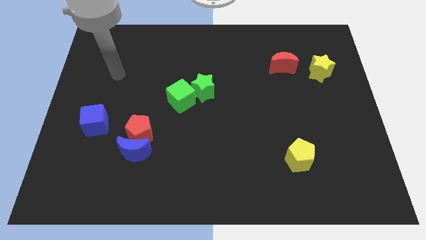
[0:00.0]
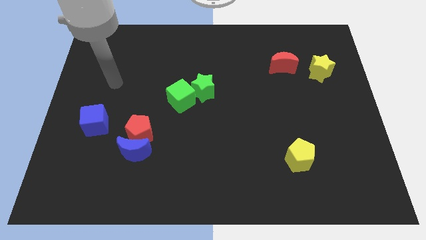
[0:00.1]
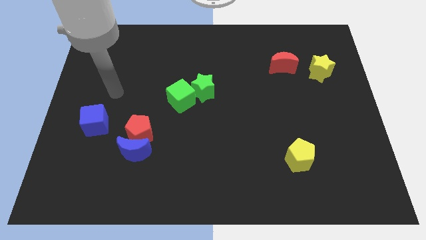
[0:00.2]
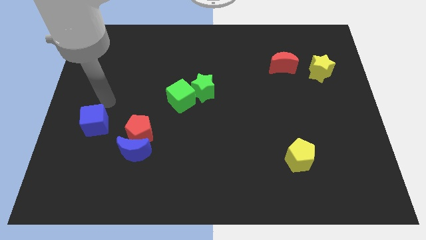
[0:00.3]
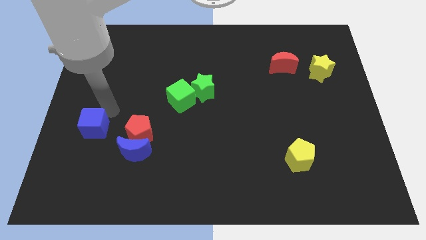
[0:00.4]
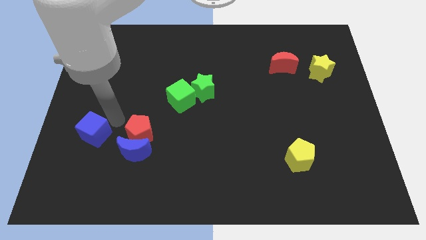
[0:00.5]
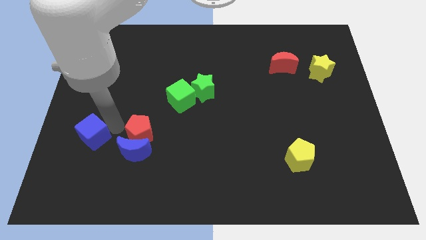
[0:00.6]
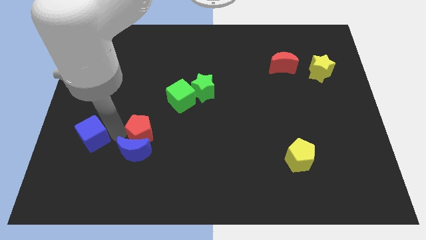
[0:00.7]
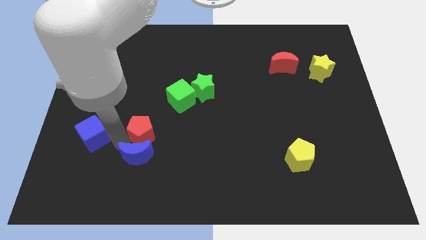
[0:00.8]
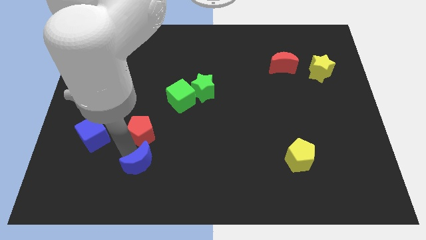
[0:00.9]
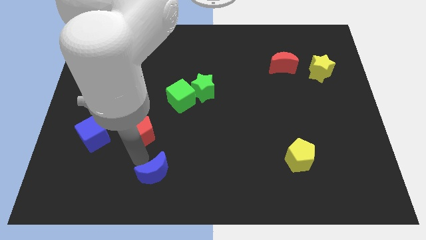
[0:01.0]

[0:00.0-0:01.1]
pull the red pentagon apart from the blue moon

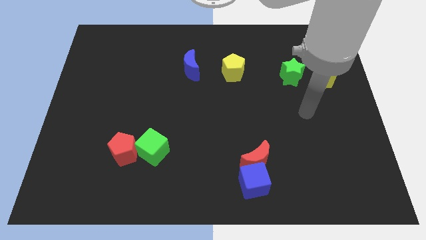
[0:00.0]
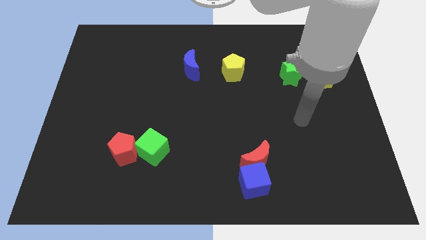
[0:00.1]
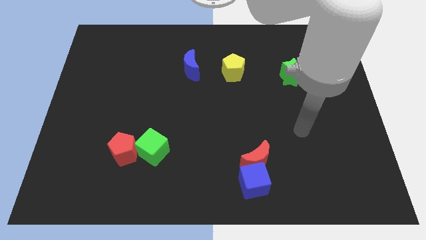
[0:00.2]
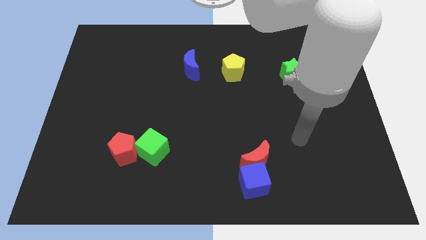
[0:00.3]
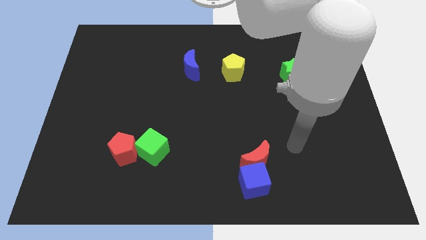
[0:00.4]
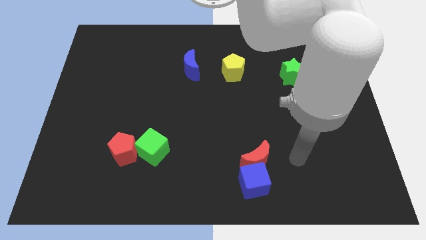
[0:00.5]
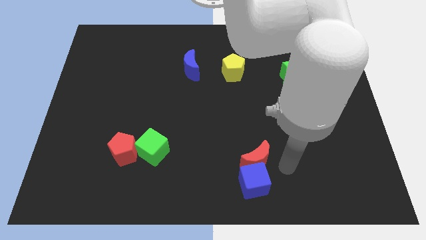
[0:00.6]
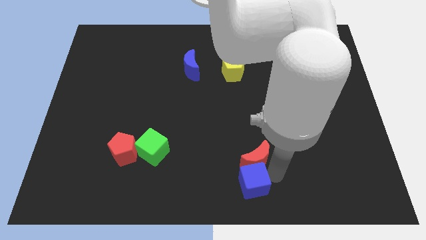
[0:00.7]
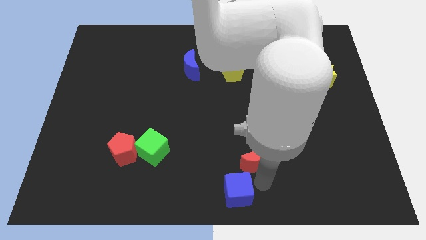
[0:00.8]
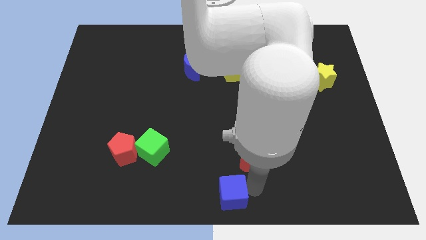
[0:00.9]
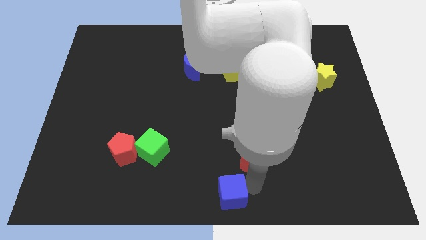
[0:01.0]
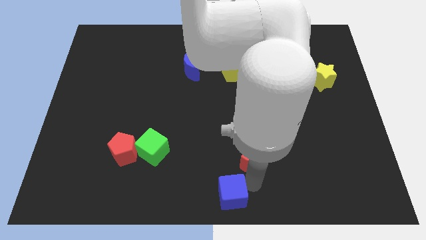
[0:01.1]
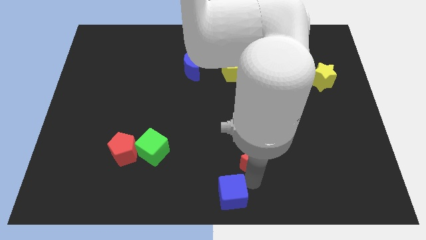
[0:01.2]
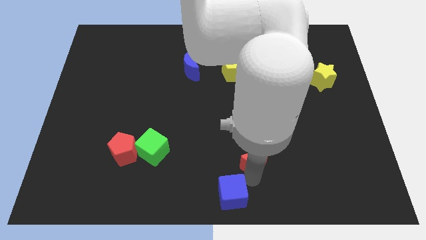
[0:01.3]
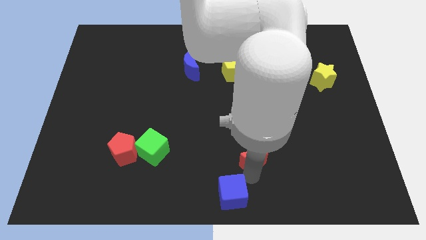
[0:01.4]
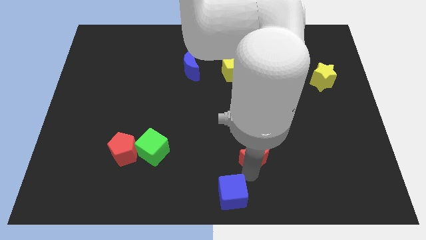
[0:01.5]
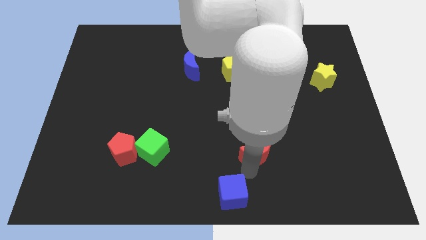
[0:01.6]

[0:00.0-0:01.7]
move the red moon away from the blue cube

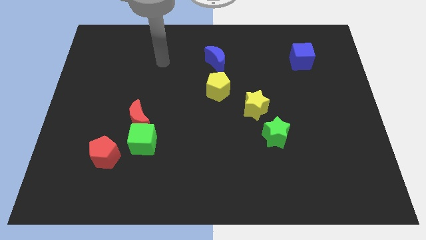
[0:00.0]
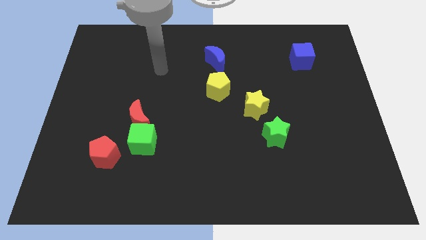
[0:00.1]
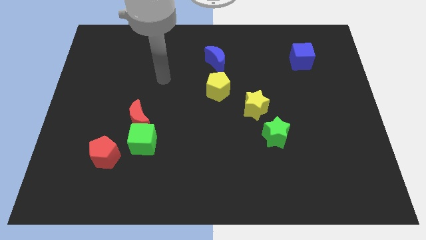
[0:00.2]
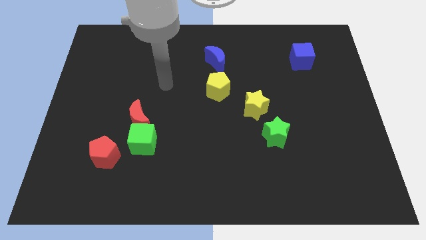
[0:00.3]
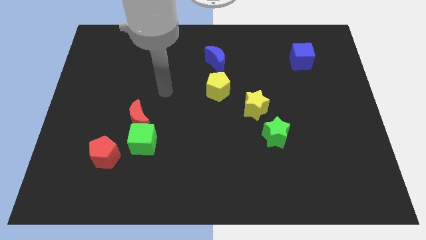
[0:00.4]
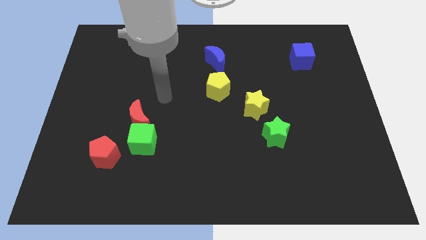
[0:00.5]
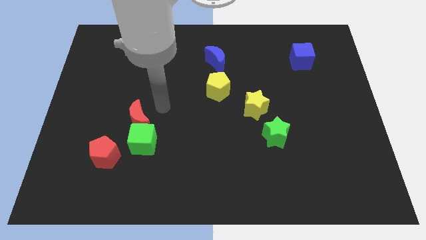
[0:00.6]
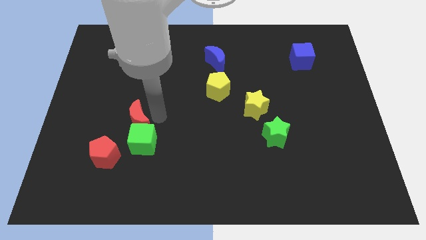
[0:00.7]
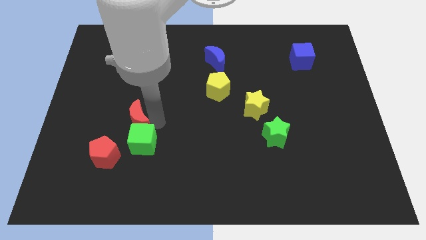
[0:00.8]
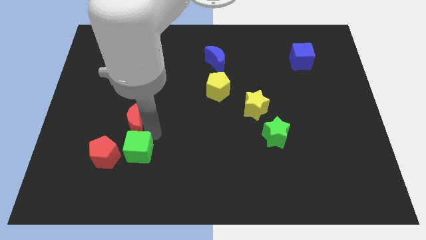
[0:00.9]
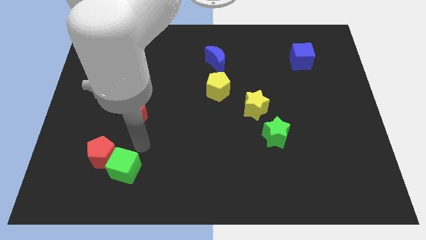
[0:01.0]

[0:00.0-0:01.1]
pull the red moon apart from the green cube

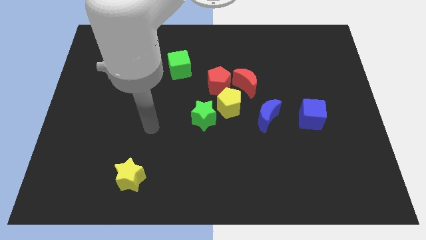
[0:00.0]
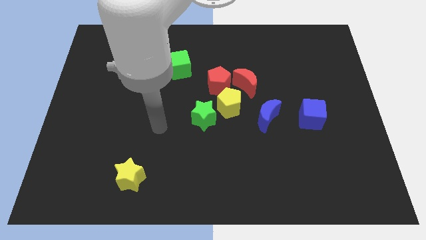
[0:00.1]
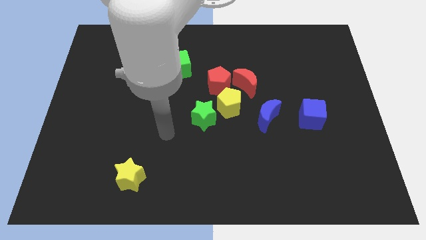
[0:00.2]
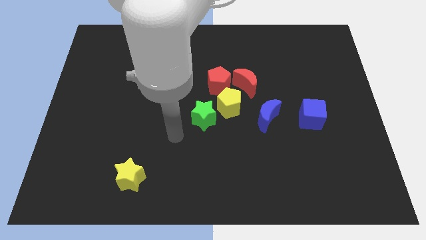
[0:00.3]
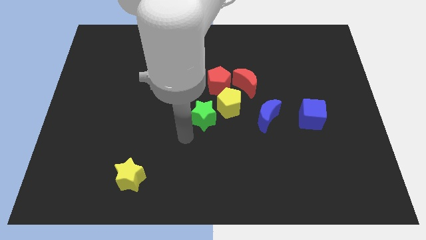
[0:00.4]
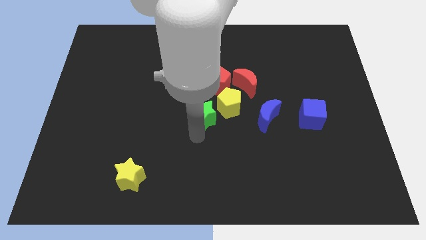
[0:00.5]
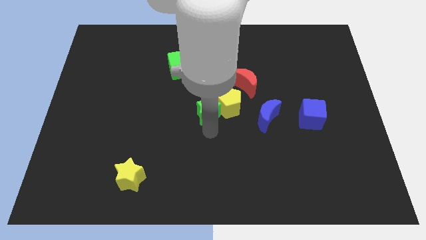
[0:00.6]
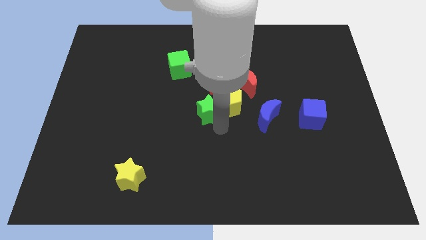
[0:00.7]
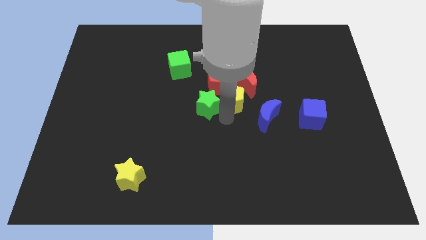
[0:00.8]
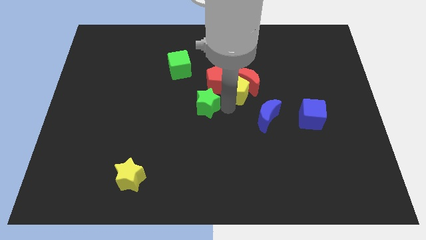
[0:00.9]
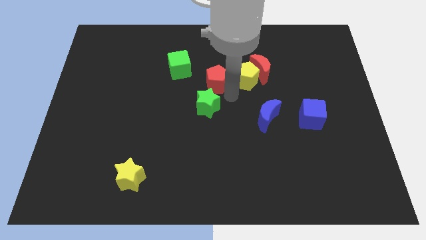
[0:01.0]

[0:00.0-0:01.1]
pull the green star apart from the yellow pentagon

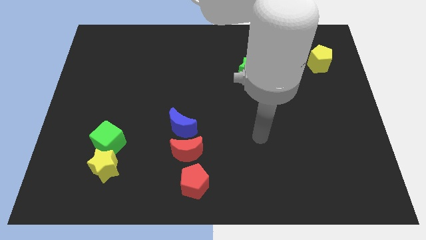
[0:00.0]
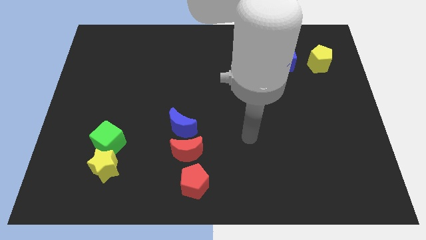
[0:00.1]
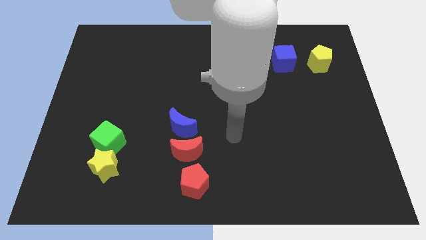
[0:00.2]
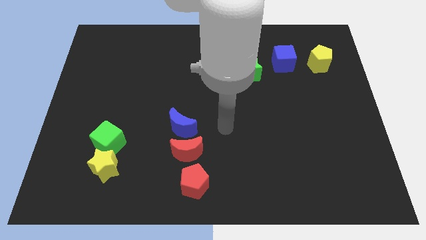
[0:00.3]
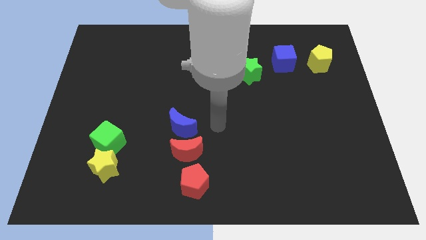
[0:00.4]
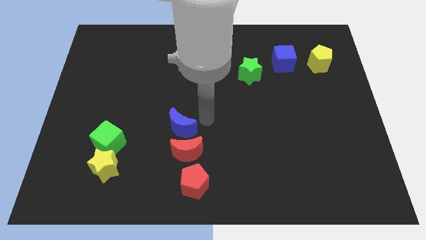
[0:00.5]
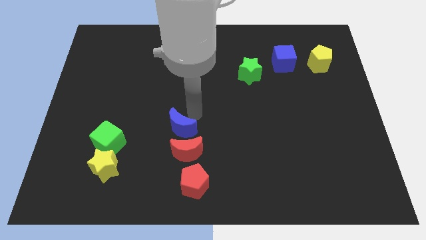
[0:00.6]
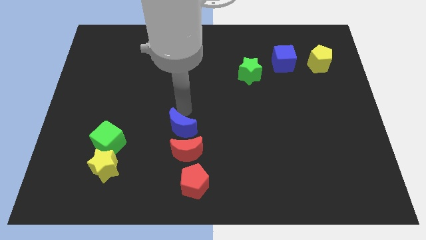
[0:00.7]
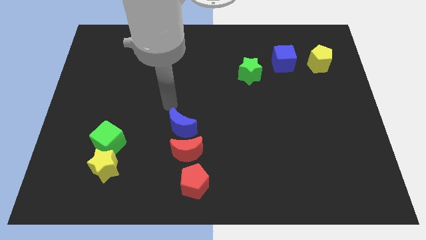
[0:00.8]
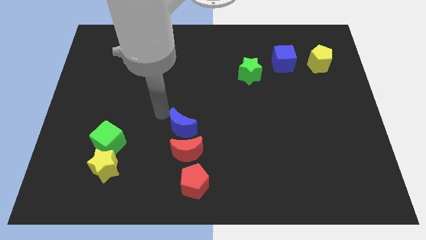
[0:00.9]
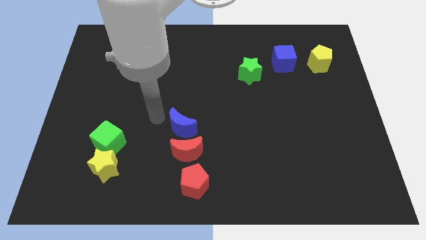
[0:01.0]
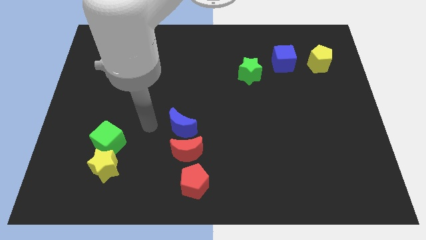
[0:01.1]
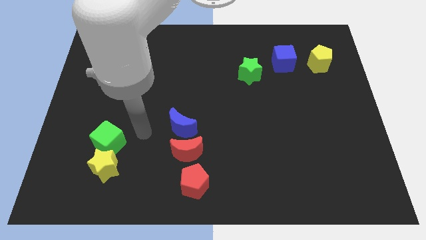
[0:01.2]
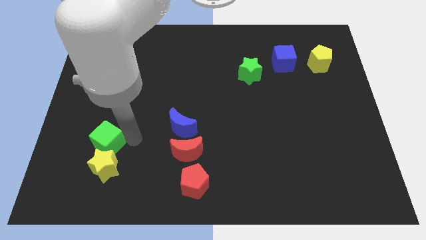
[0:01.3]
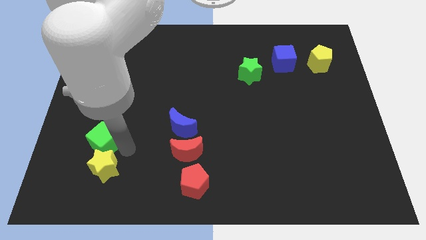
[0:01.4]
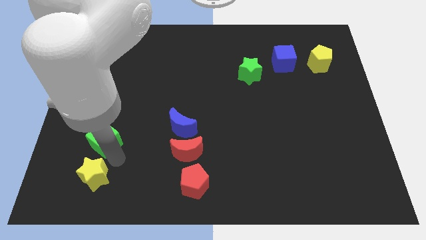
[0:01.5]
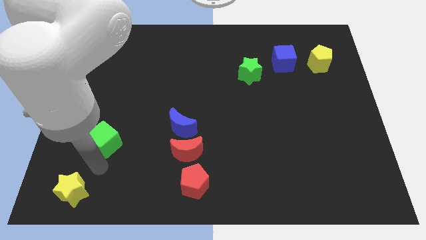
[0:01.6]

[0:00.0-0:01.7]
move the green cube away from the yellow star

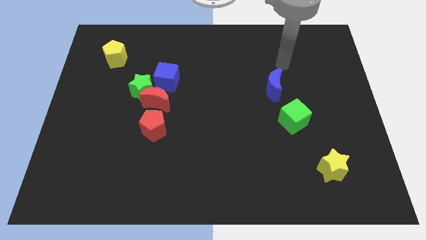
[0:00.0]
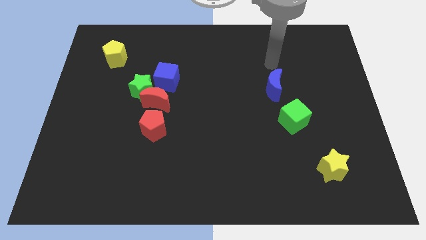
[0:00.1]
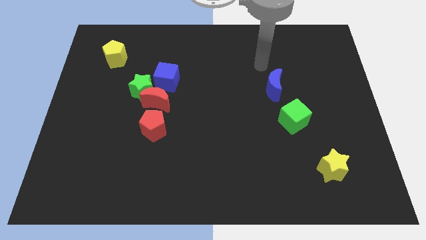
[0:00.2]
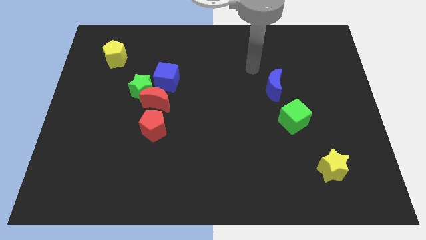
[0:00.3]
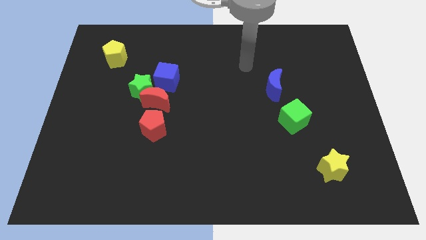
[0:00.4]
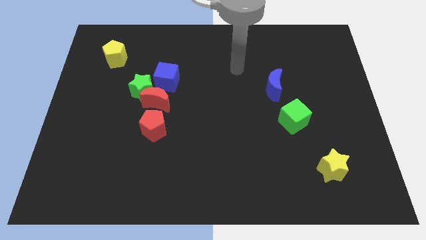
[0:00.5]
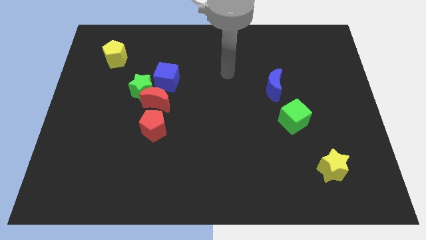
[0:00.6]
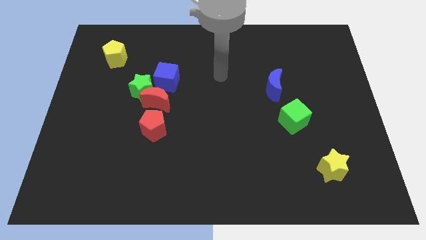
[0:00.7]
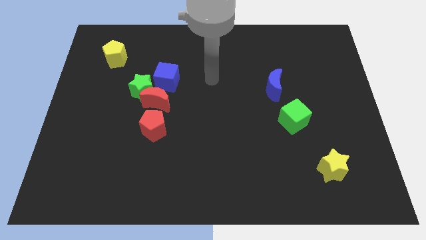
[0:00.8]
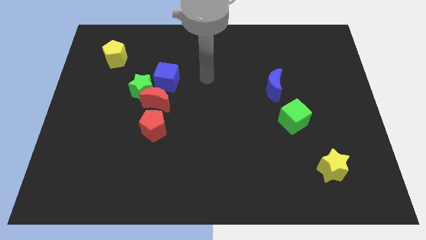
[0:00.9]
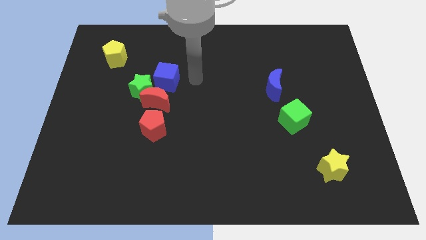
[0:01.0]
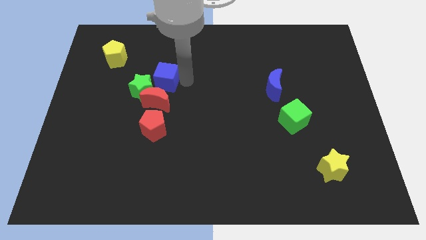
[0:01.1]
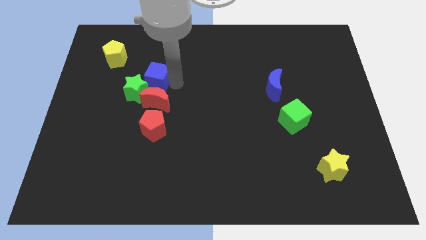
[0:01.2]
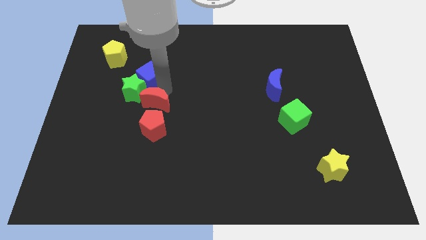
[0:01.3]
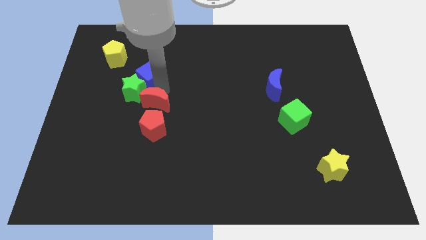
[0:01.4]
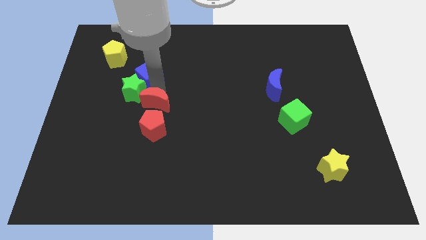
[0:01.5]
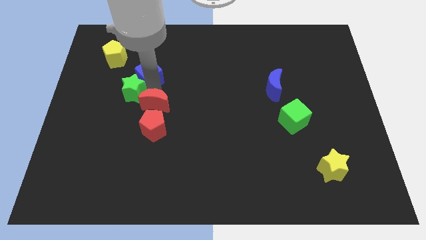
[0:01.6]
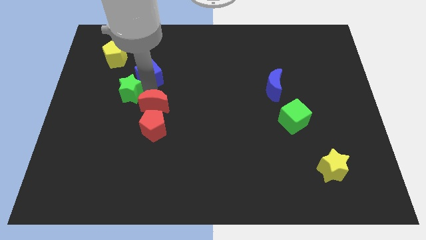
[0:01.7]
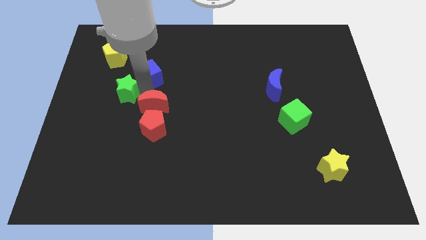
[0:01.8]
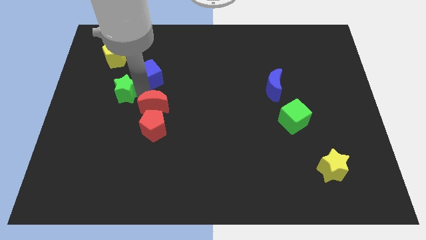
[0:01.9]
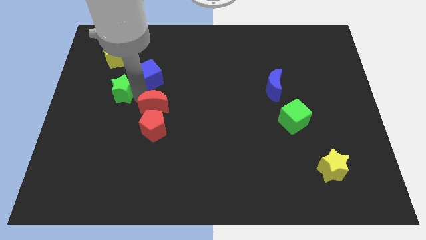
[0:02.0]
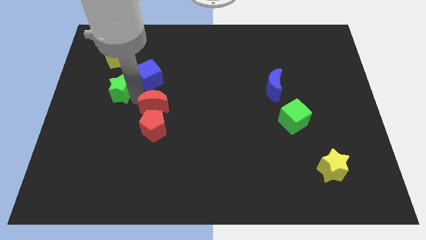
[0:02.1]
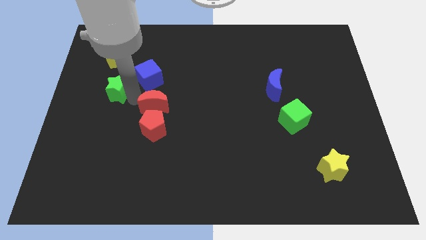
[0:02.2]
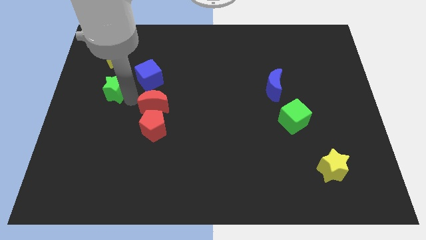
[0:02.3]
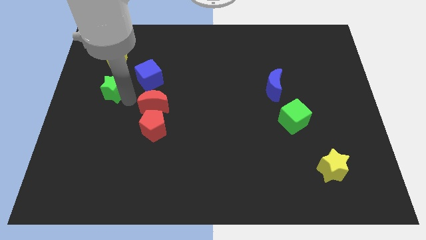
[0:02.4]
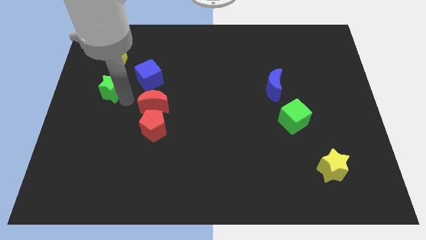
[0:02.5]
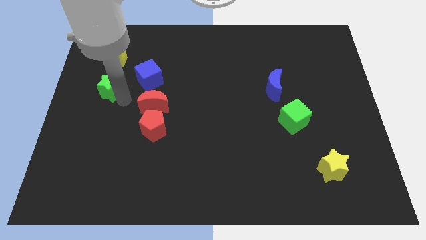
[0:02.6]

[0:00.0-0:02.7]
move the green star away from the red moon and blue cube
